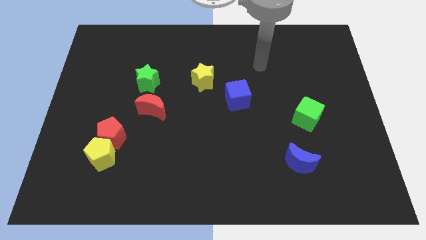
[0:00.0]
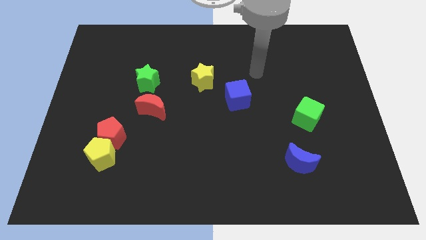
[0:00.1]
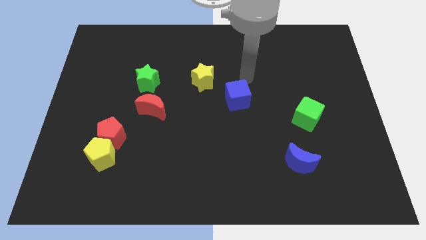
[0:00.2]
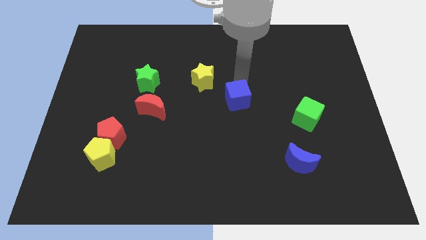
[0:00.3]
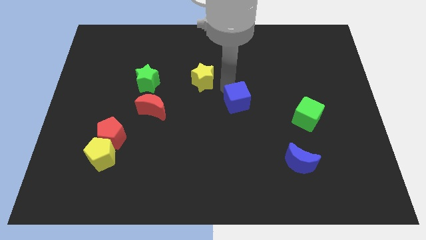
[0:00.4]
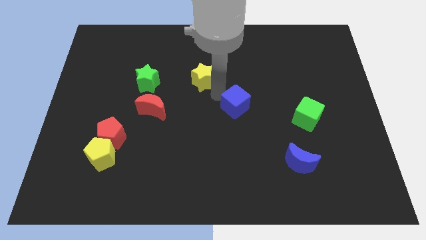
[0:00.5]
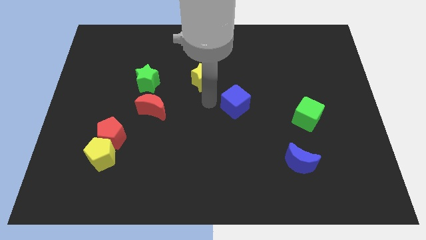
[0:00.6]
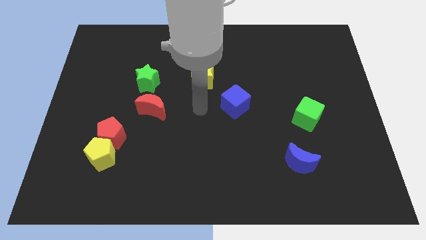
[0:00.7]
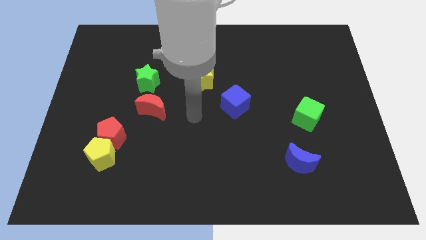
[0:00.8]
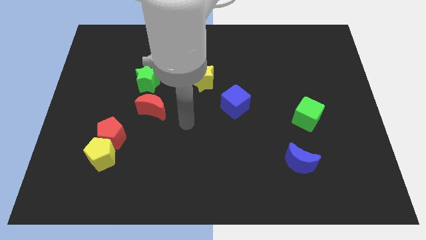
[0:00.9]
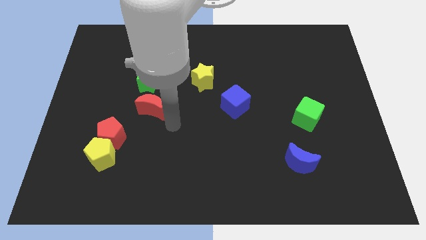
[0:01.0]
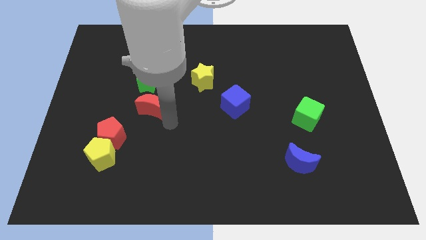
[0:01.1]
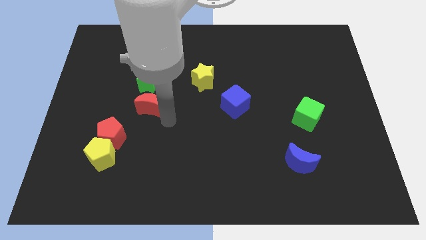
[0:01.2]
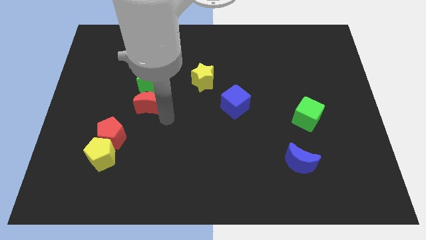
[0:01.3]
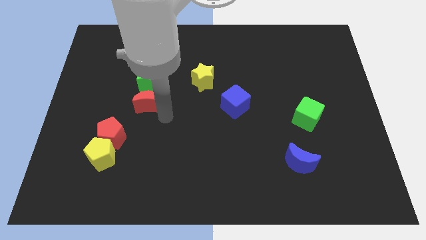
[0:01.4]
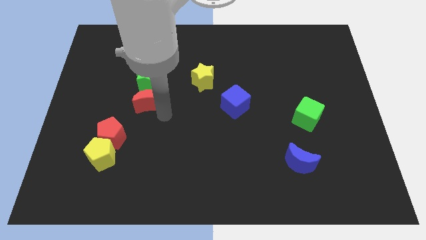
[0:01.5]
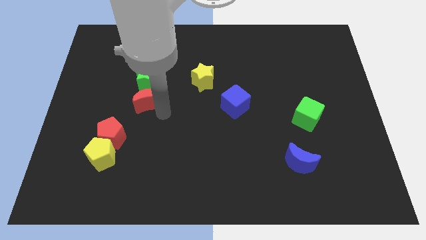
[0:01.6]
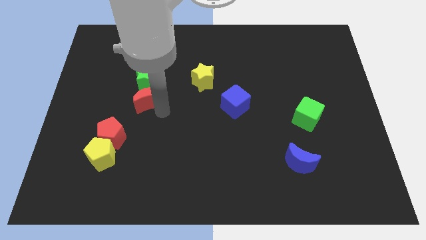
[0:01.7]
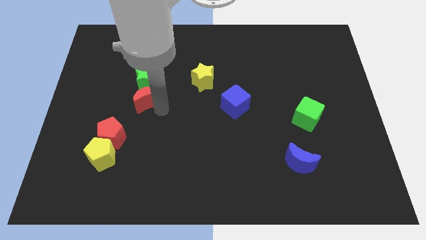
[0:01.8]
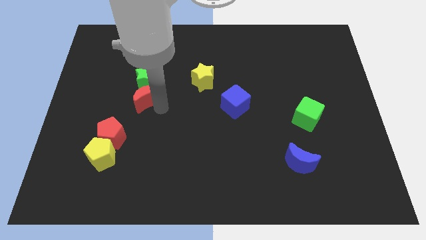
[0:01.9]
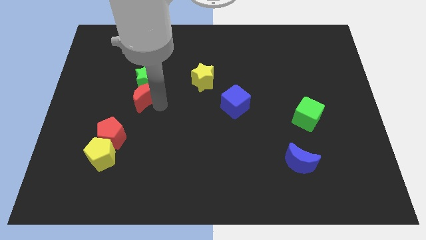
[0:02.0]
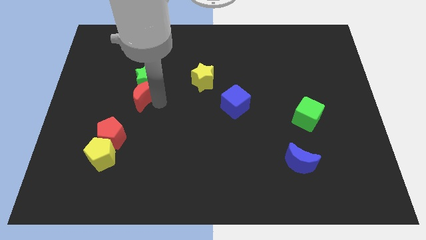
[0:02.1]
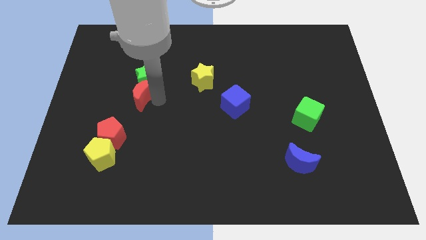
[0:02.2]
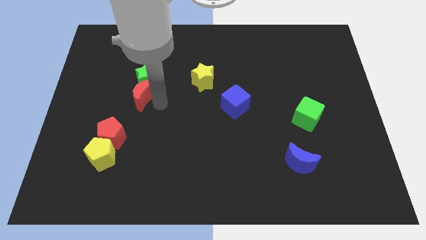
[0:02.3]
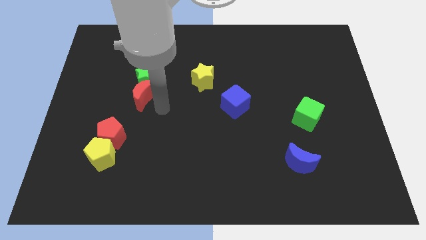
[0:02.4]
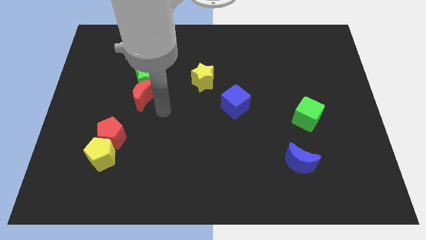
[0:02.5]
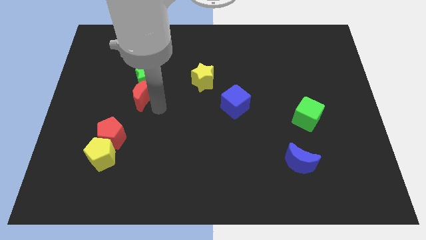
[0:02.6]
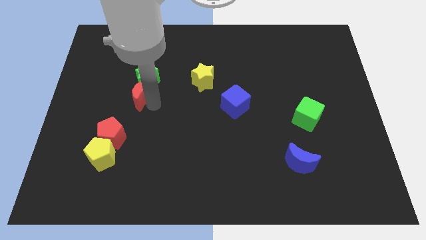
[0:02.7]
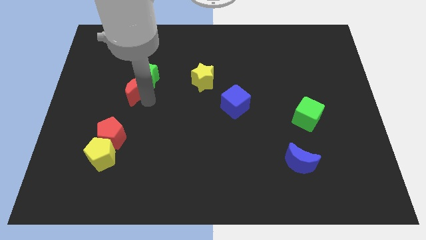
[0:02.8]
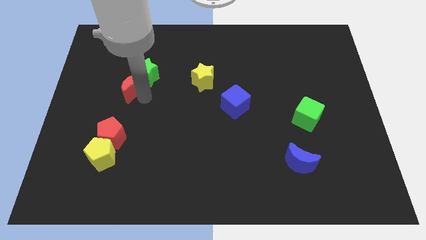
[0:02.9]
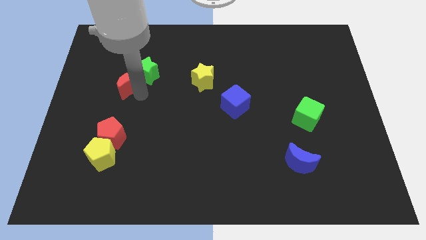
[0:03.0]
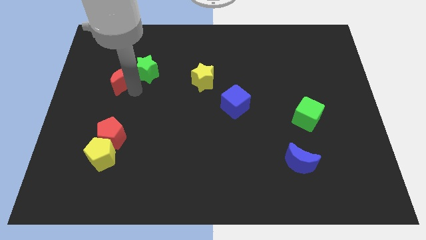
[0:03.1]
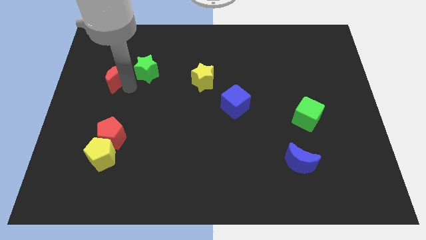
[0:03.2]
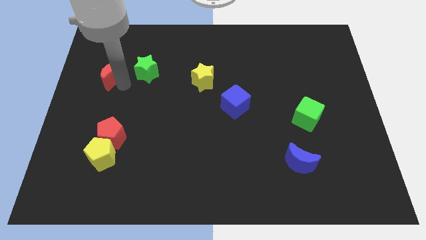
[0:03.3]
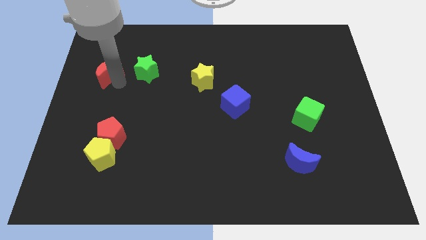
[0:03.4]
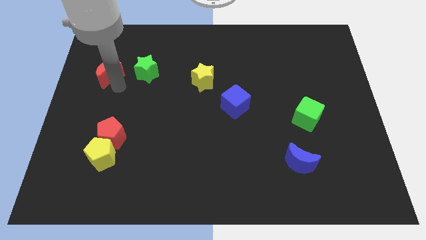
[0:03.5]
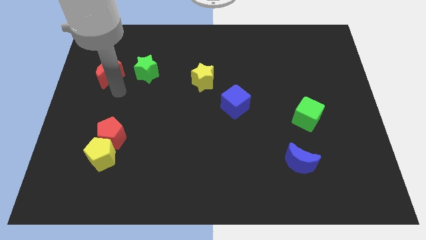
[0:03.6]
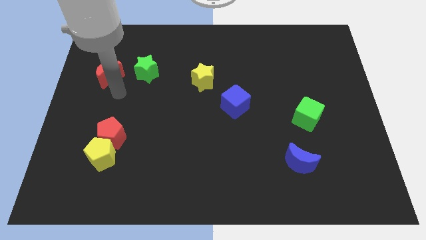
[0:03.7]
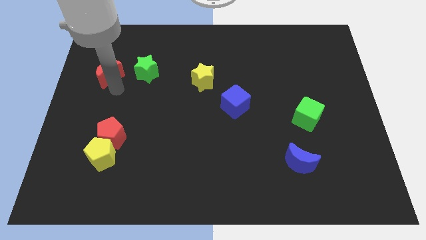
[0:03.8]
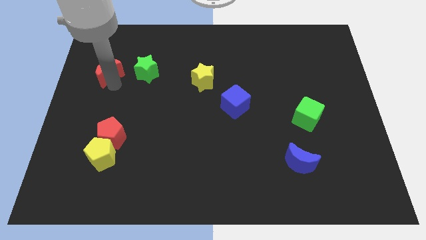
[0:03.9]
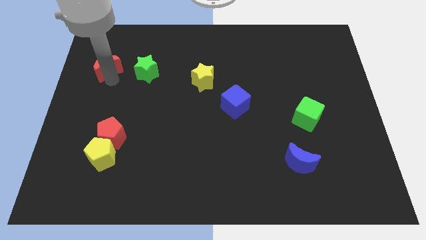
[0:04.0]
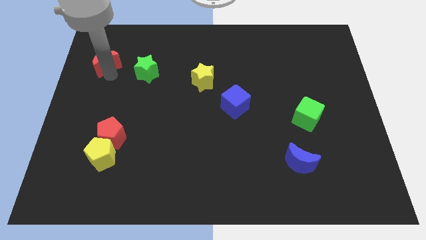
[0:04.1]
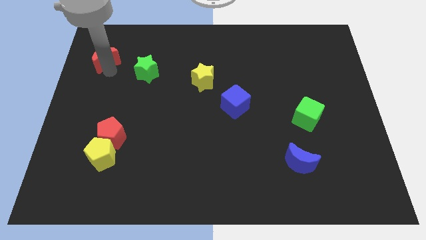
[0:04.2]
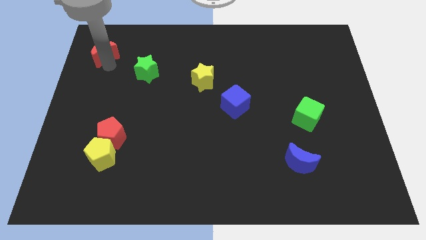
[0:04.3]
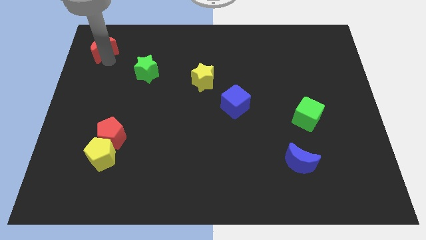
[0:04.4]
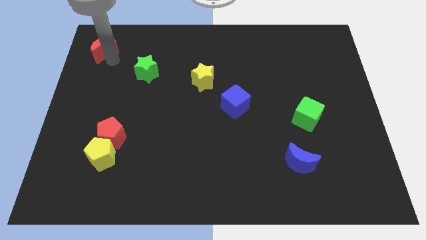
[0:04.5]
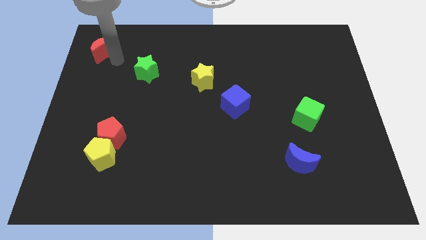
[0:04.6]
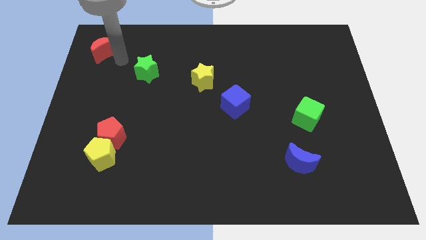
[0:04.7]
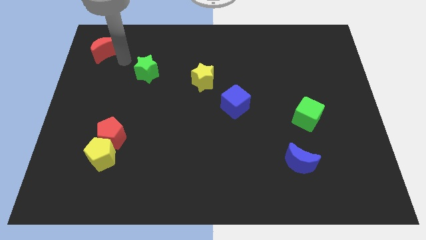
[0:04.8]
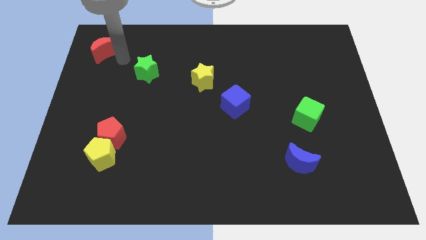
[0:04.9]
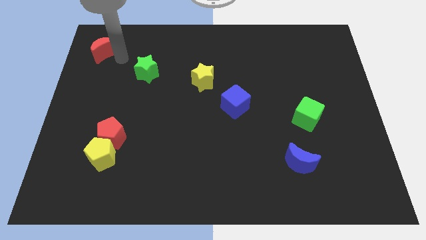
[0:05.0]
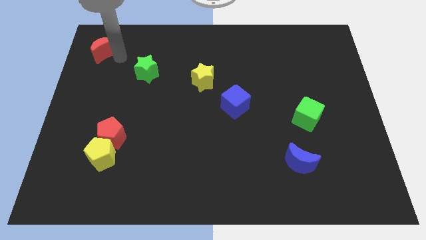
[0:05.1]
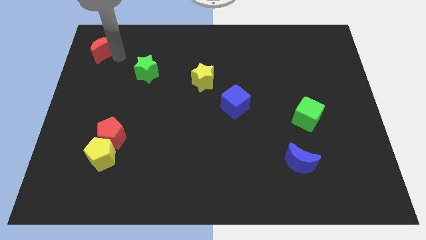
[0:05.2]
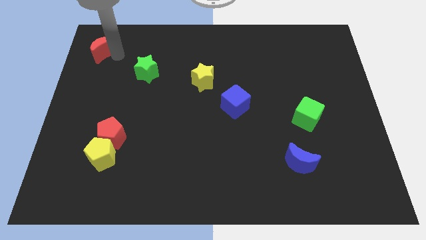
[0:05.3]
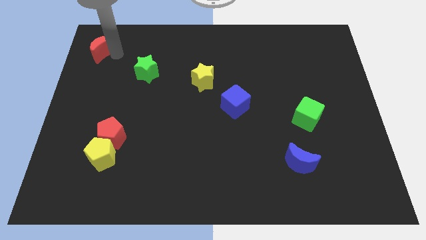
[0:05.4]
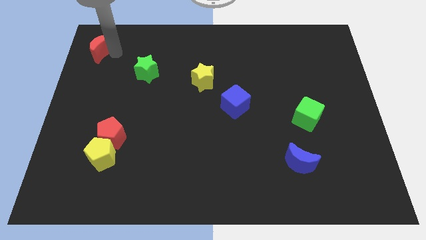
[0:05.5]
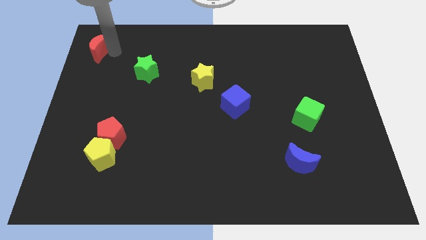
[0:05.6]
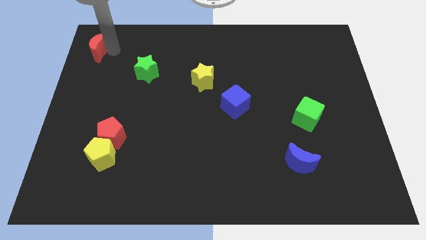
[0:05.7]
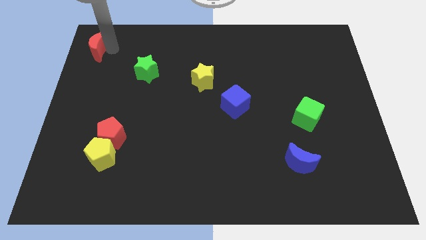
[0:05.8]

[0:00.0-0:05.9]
put the red moon to the top left of the board
